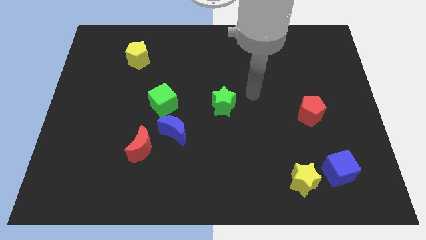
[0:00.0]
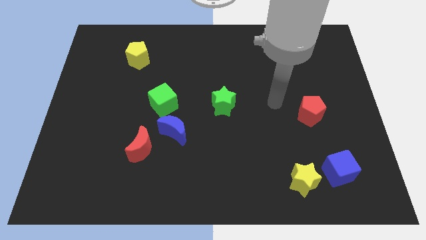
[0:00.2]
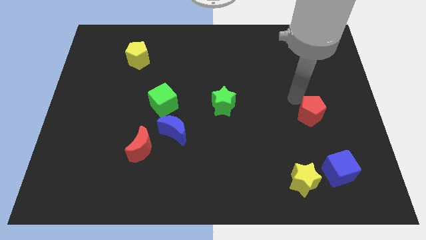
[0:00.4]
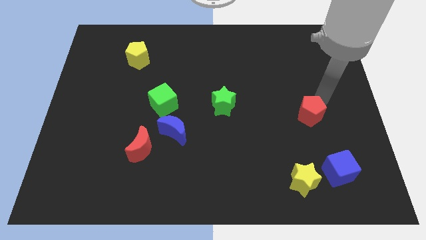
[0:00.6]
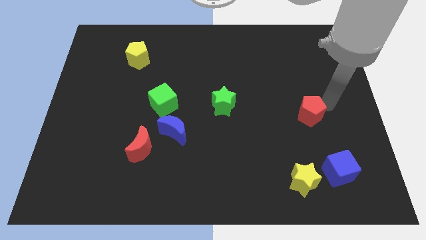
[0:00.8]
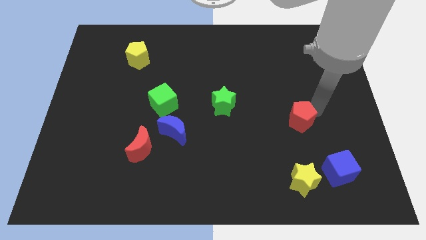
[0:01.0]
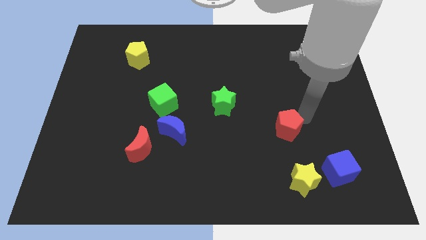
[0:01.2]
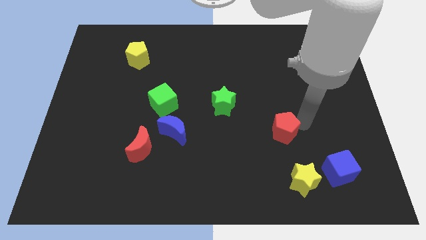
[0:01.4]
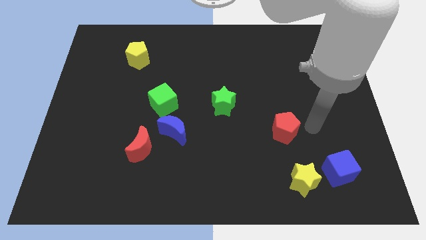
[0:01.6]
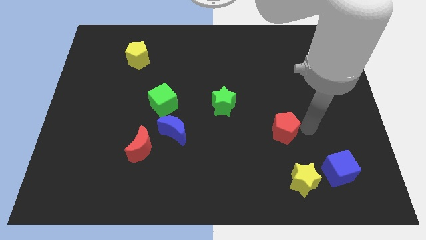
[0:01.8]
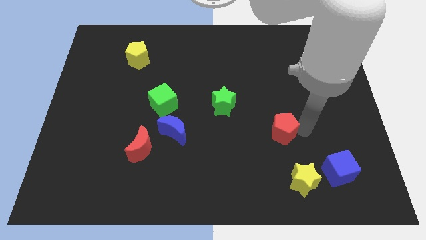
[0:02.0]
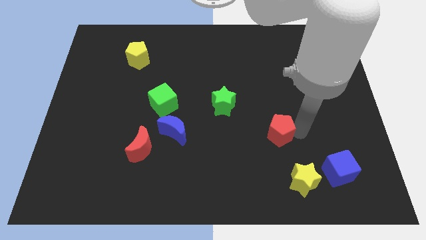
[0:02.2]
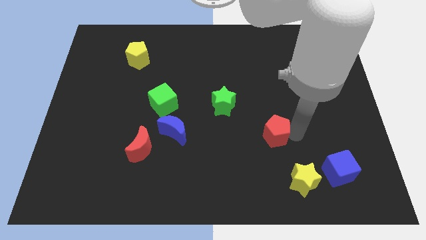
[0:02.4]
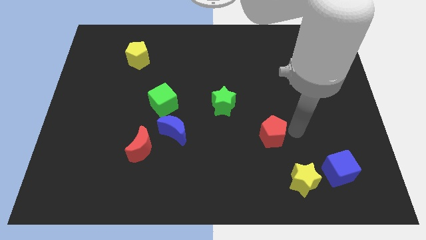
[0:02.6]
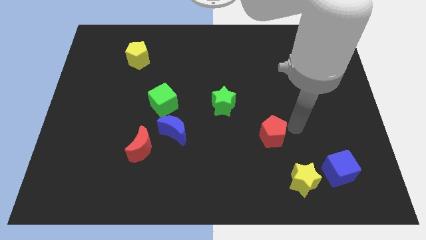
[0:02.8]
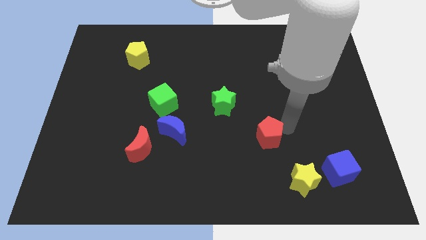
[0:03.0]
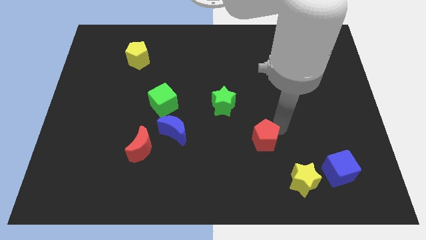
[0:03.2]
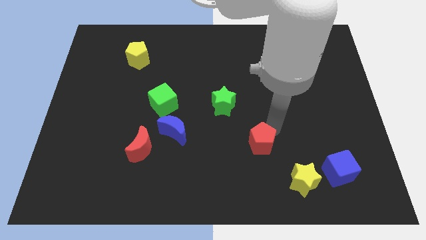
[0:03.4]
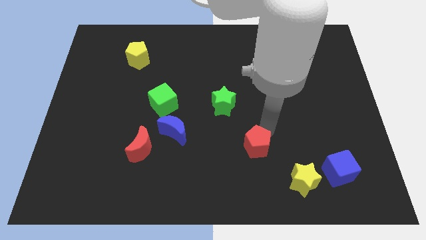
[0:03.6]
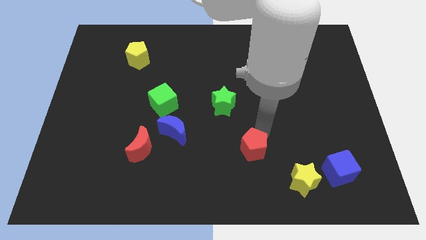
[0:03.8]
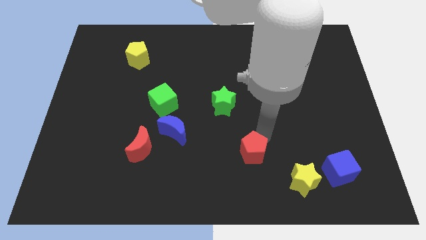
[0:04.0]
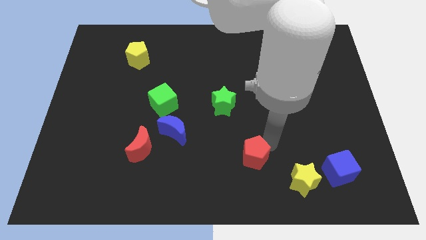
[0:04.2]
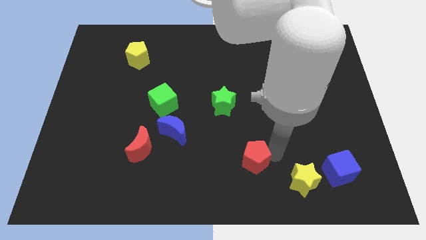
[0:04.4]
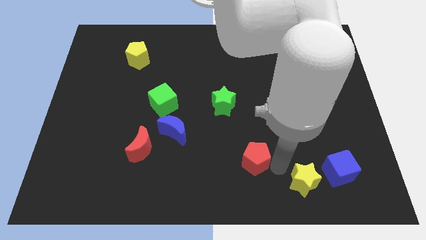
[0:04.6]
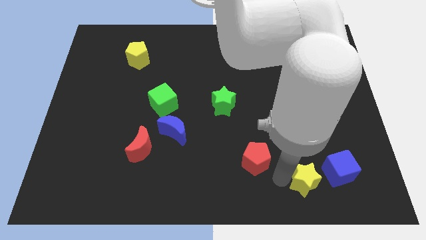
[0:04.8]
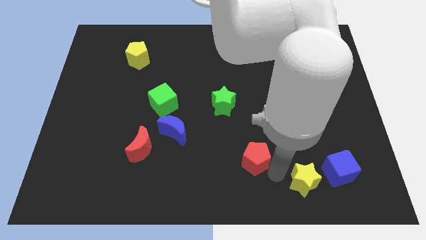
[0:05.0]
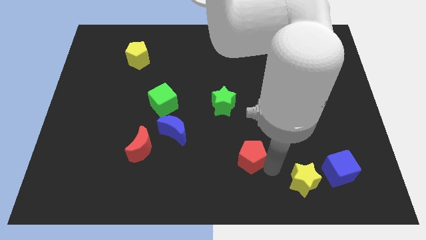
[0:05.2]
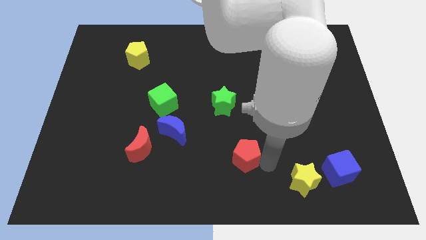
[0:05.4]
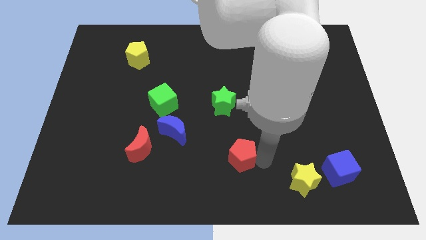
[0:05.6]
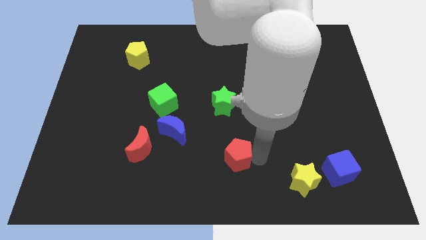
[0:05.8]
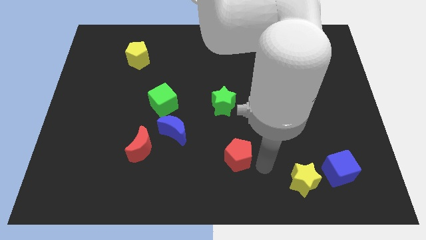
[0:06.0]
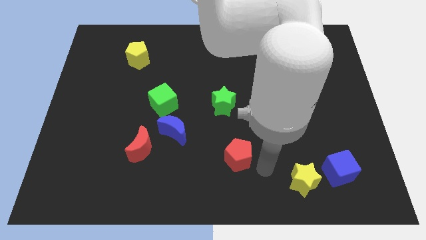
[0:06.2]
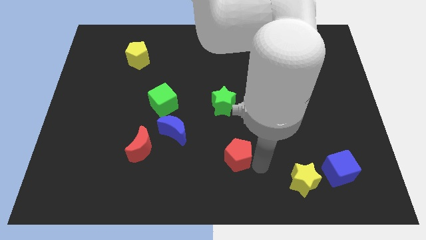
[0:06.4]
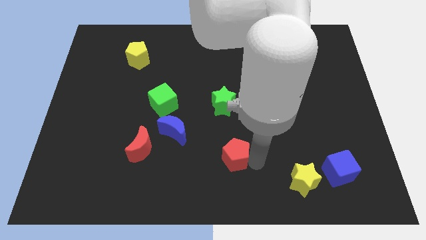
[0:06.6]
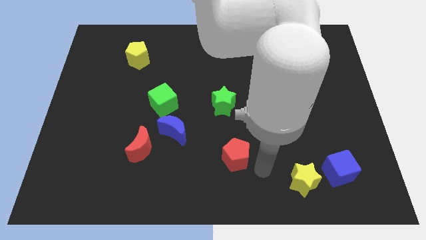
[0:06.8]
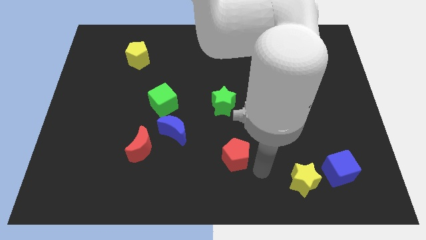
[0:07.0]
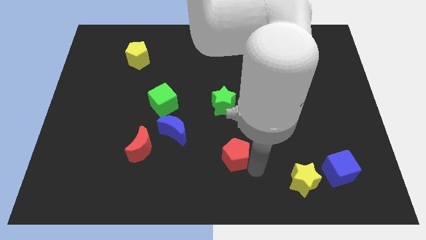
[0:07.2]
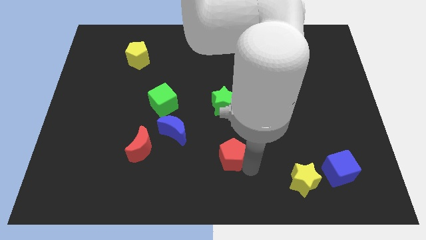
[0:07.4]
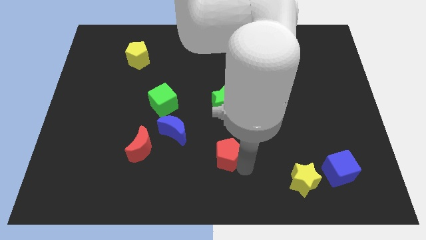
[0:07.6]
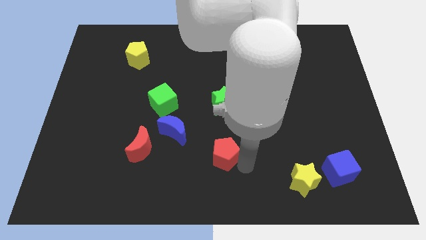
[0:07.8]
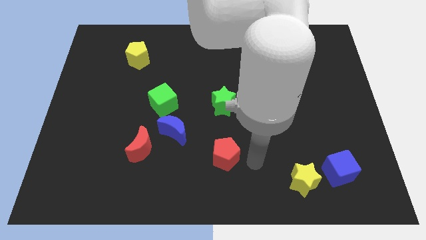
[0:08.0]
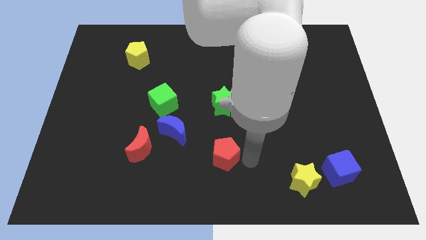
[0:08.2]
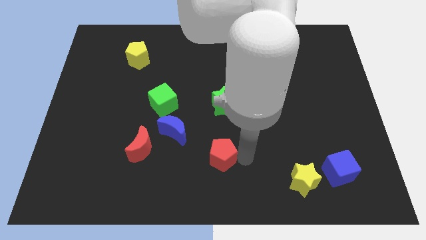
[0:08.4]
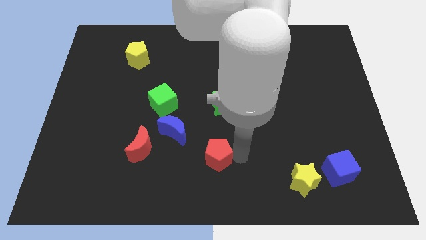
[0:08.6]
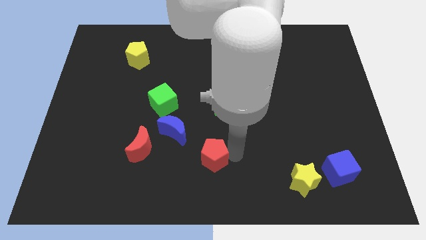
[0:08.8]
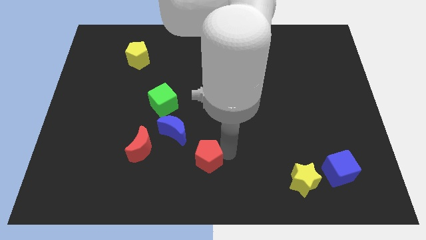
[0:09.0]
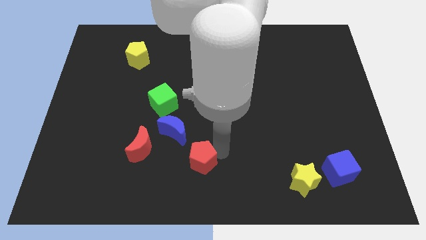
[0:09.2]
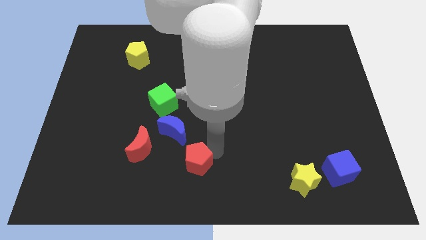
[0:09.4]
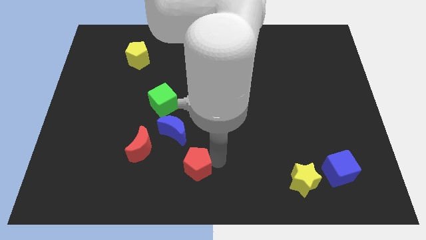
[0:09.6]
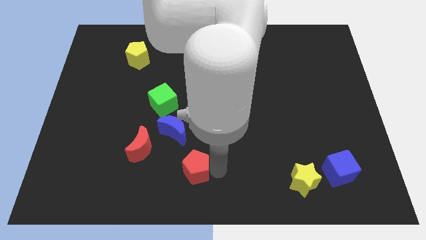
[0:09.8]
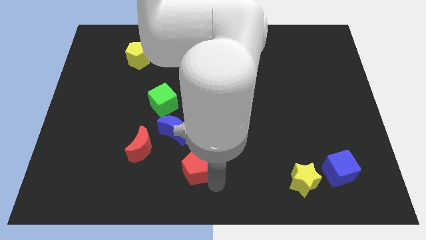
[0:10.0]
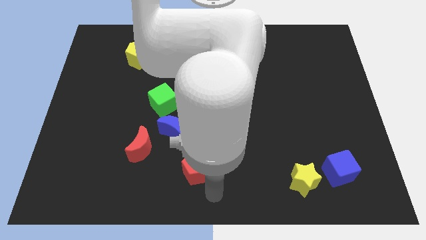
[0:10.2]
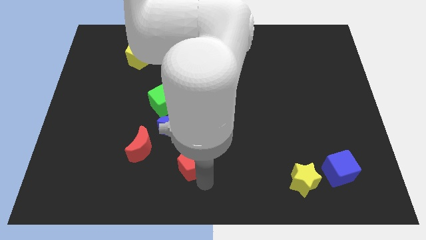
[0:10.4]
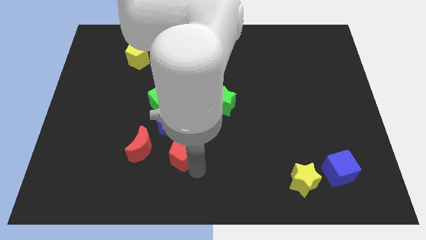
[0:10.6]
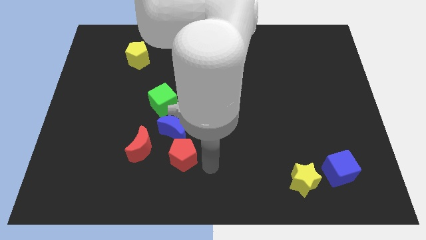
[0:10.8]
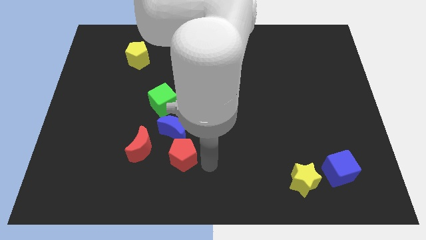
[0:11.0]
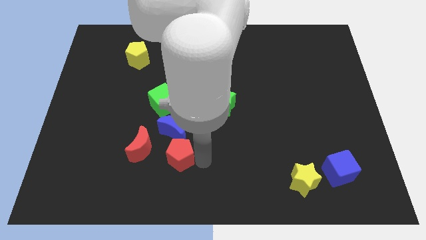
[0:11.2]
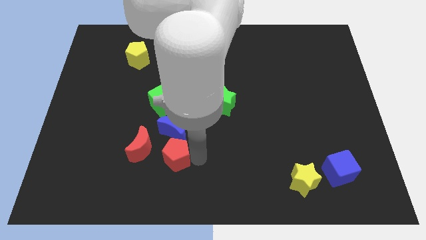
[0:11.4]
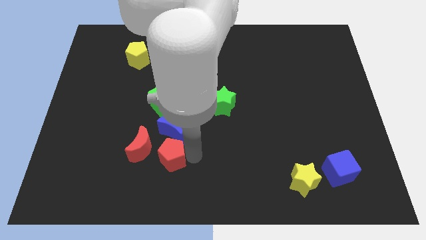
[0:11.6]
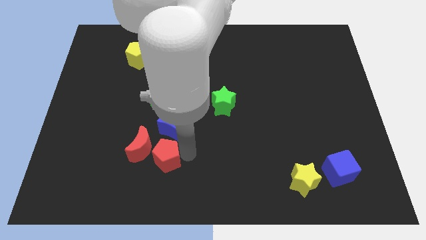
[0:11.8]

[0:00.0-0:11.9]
push the red pentagon close to the red moon

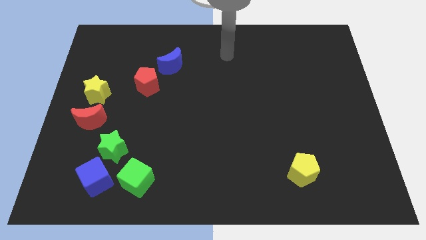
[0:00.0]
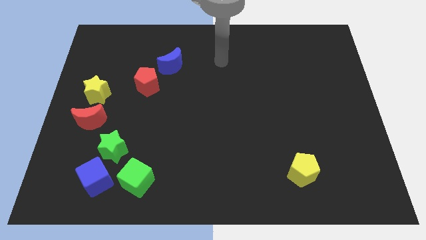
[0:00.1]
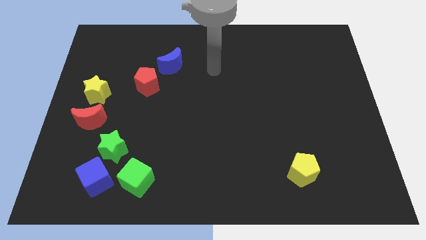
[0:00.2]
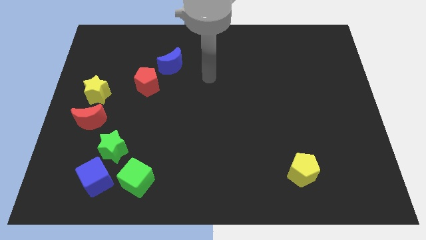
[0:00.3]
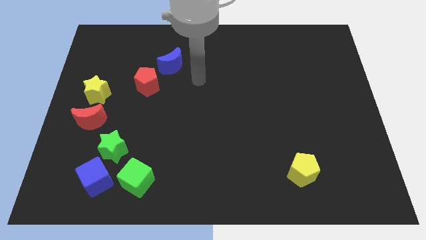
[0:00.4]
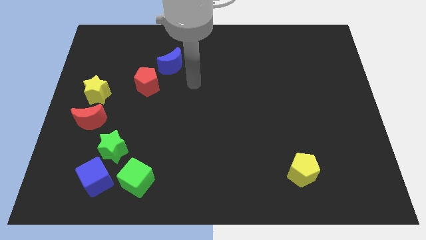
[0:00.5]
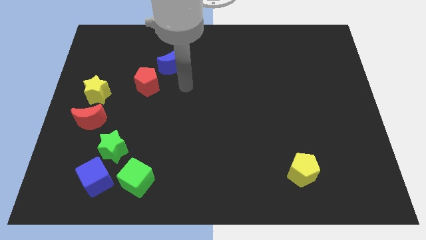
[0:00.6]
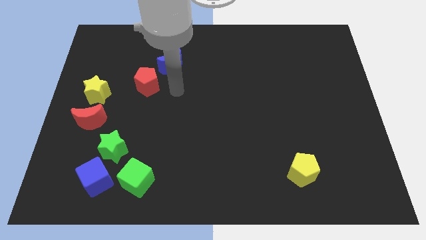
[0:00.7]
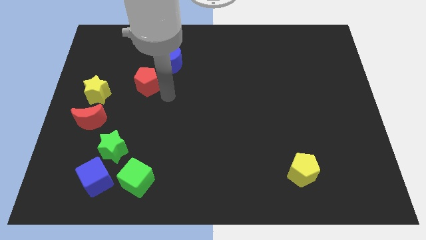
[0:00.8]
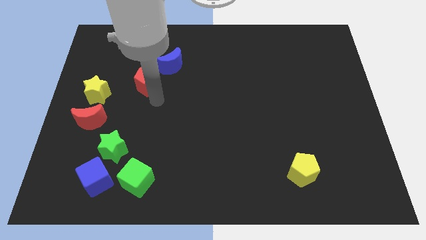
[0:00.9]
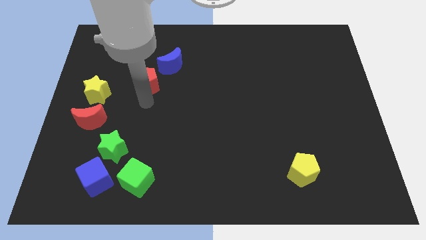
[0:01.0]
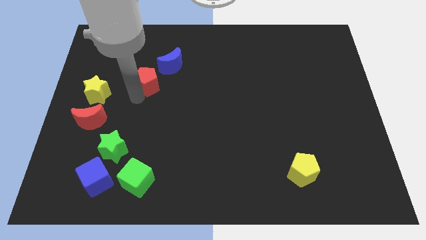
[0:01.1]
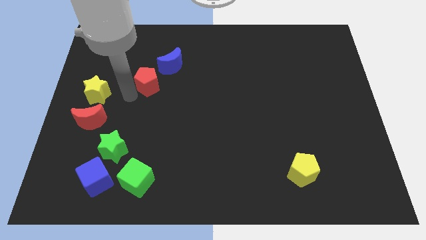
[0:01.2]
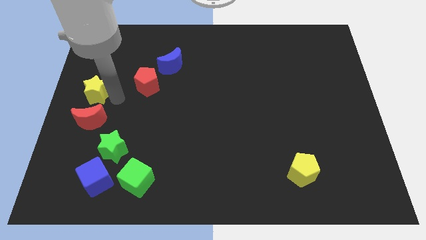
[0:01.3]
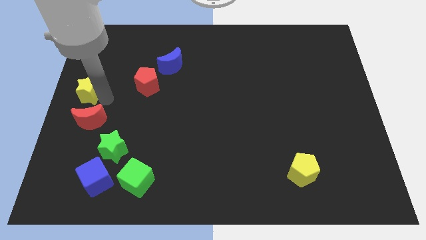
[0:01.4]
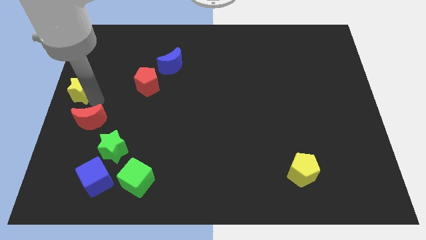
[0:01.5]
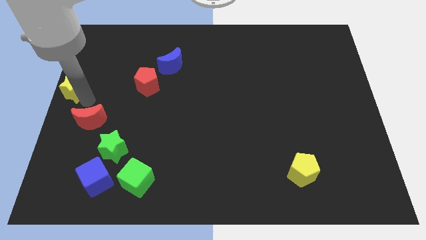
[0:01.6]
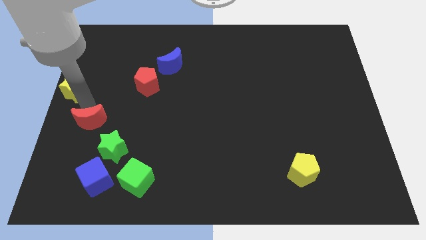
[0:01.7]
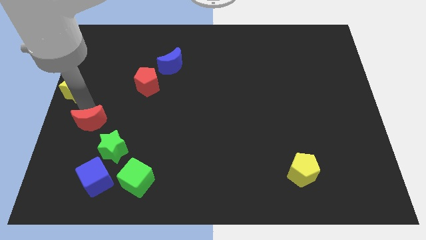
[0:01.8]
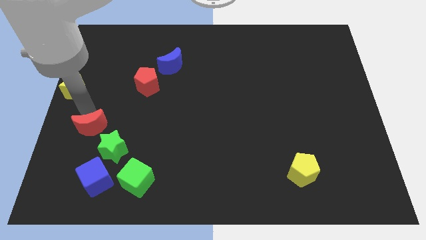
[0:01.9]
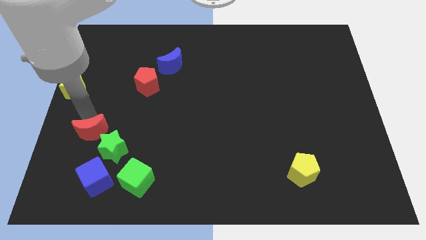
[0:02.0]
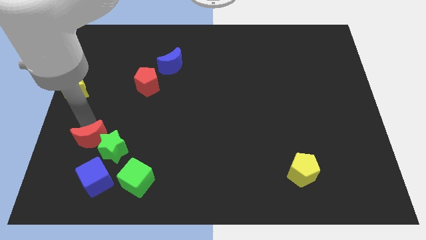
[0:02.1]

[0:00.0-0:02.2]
push the red moon to the green star
